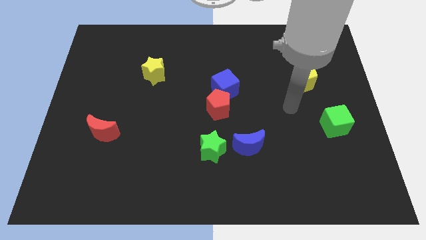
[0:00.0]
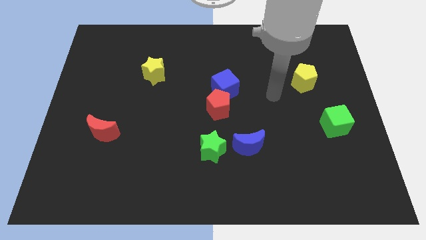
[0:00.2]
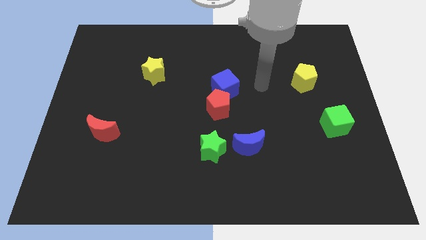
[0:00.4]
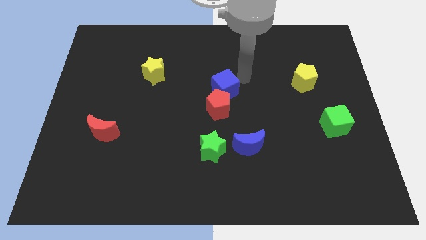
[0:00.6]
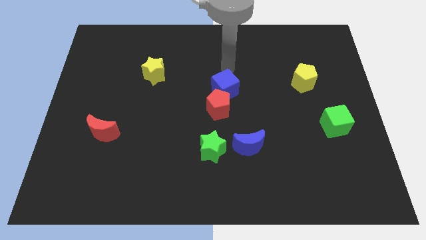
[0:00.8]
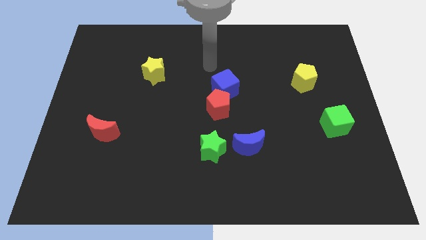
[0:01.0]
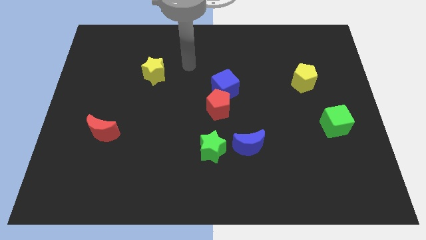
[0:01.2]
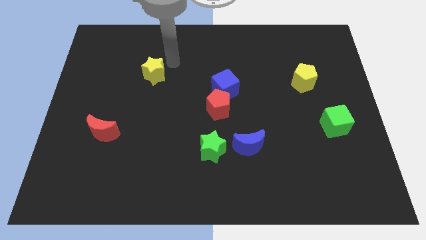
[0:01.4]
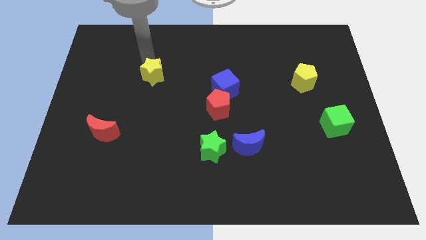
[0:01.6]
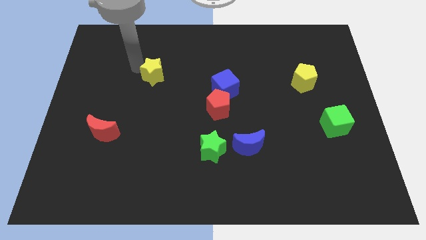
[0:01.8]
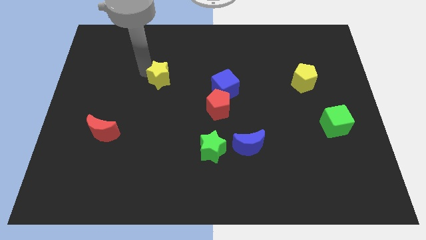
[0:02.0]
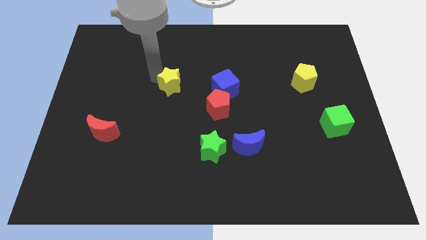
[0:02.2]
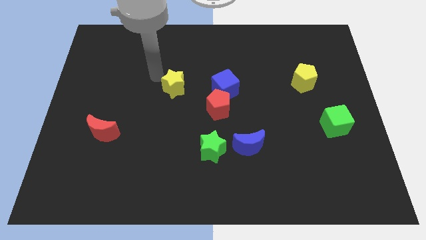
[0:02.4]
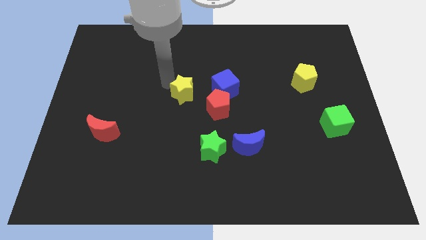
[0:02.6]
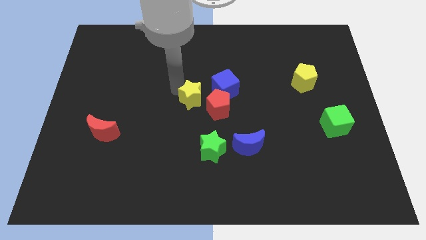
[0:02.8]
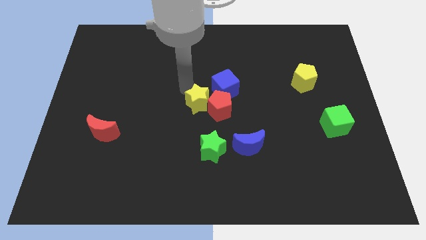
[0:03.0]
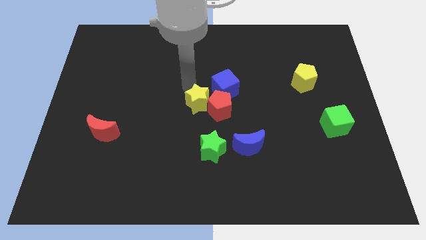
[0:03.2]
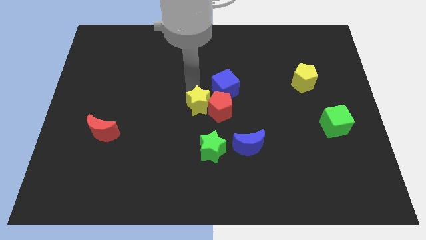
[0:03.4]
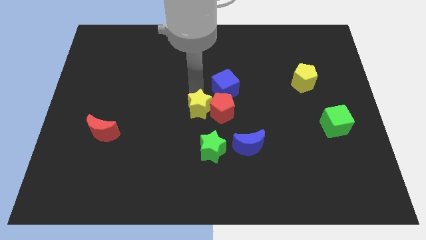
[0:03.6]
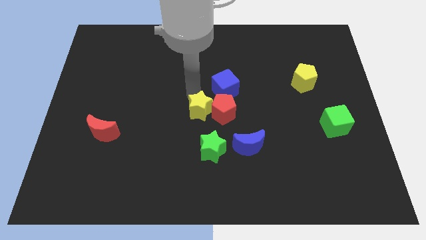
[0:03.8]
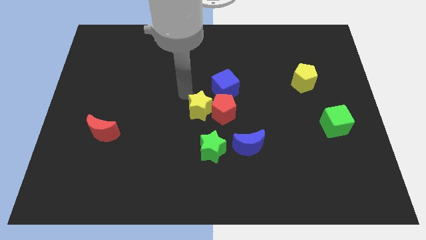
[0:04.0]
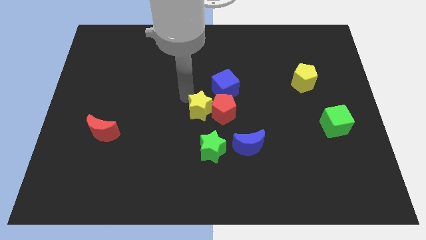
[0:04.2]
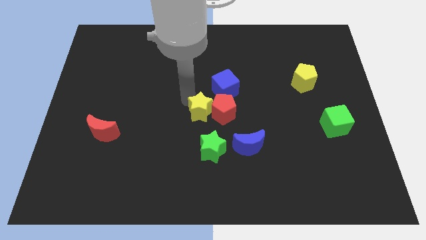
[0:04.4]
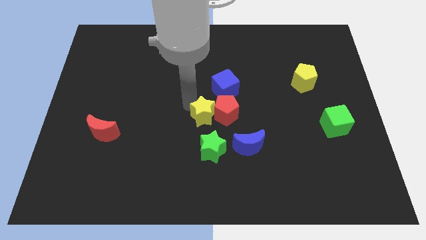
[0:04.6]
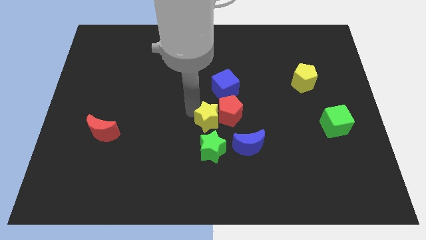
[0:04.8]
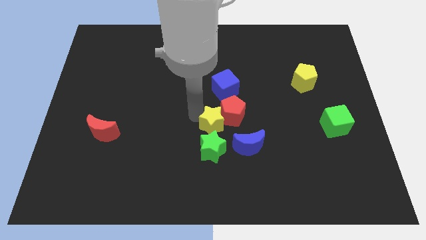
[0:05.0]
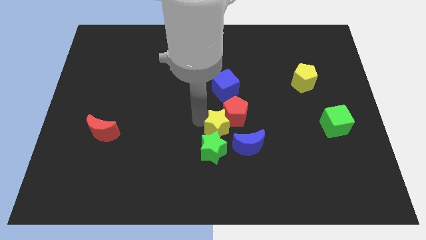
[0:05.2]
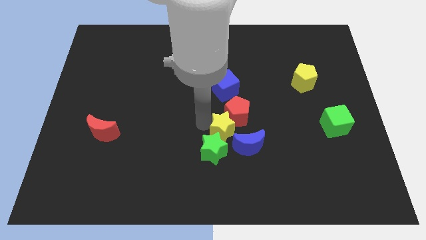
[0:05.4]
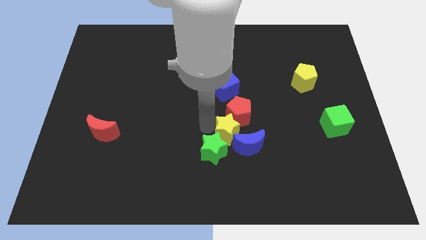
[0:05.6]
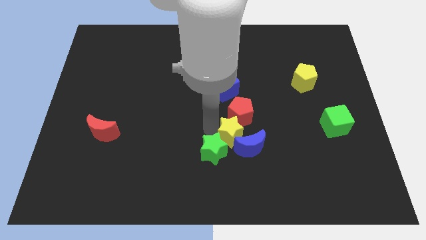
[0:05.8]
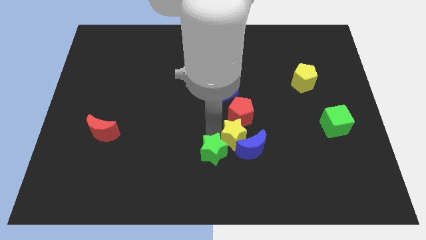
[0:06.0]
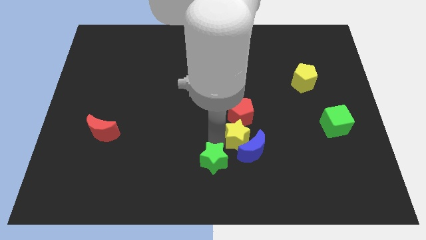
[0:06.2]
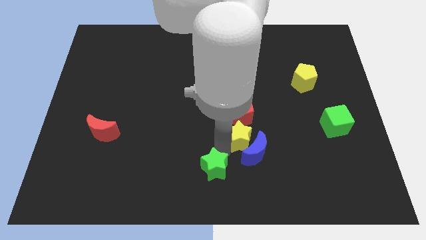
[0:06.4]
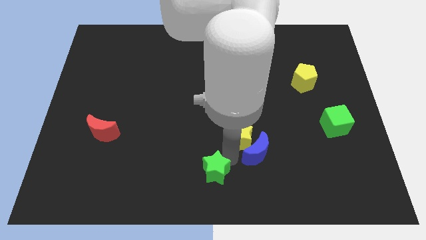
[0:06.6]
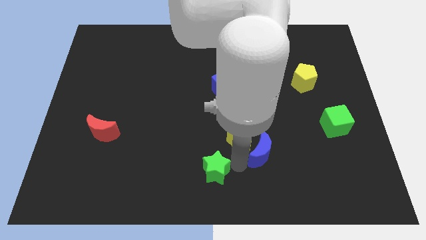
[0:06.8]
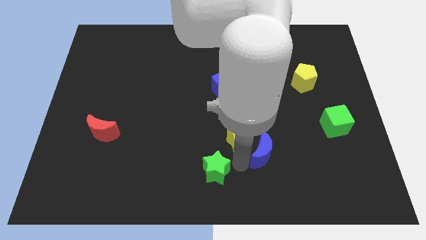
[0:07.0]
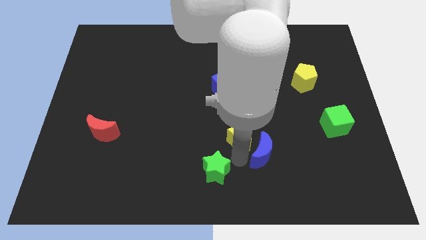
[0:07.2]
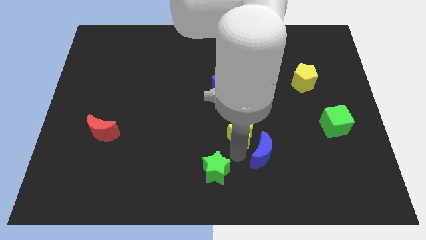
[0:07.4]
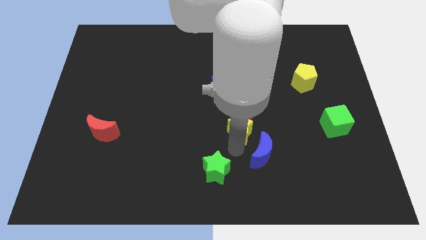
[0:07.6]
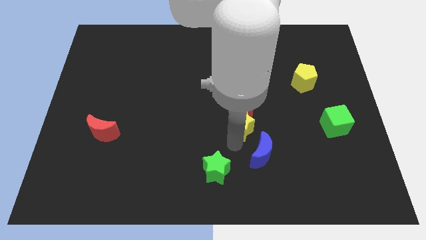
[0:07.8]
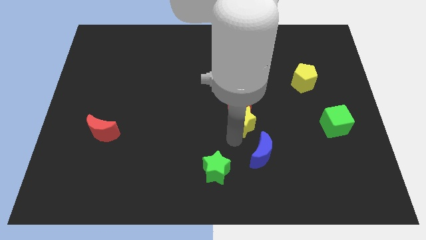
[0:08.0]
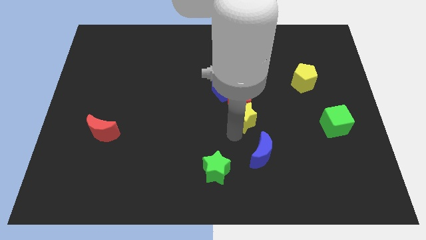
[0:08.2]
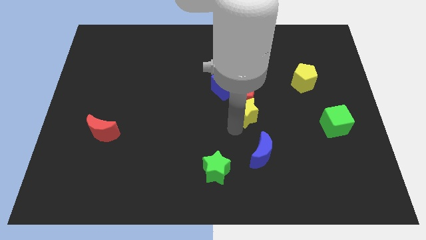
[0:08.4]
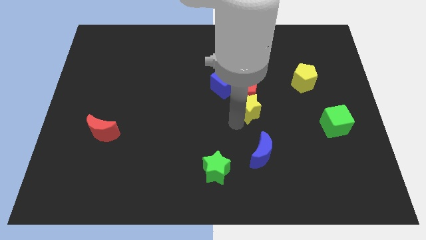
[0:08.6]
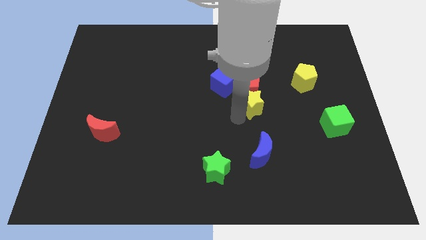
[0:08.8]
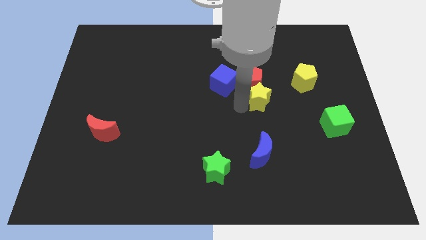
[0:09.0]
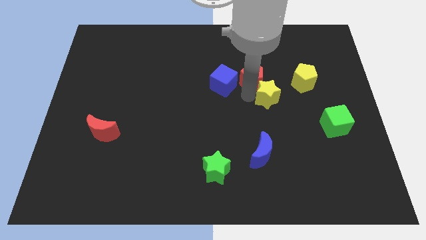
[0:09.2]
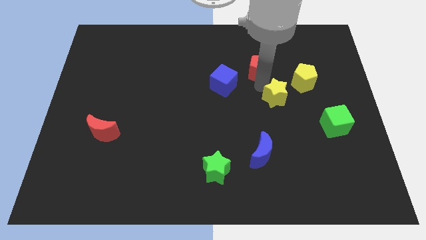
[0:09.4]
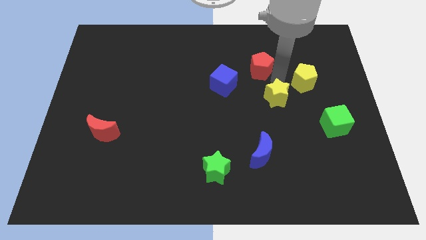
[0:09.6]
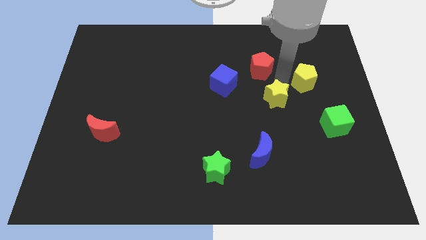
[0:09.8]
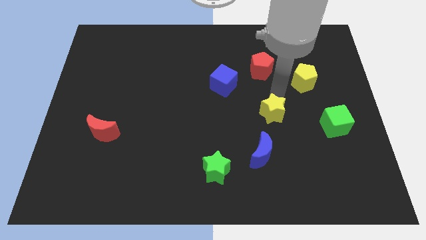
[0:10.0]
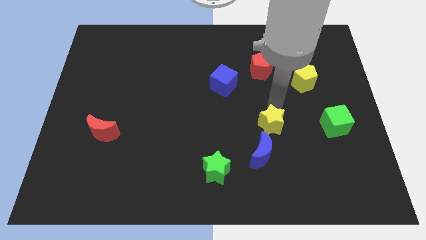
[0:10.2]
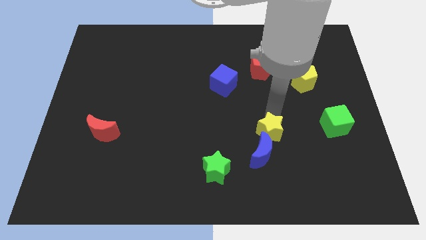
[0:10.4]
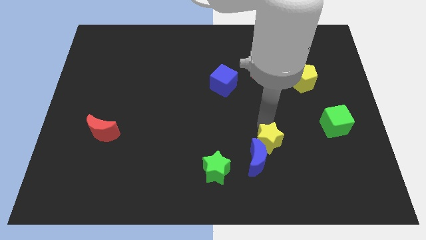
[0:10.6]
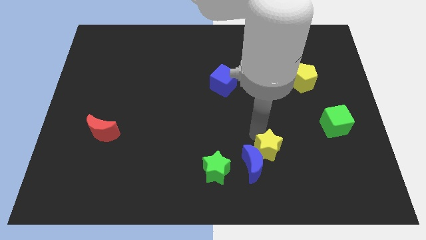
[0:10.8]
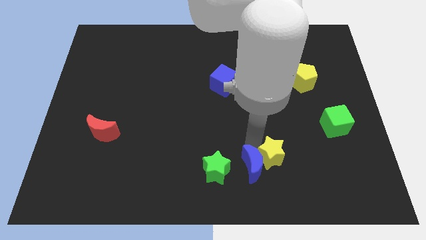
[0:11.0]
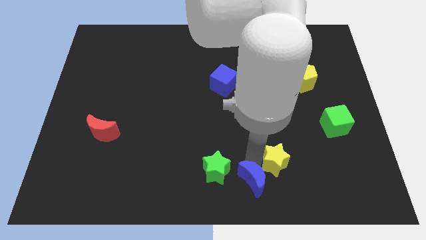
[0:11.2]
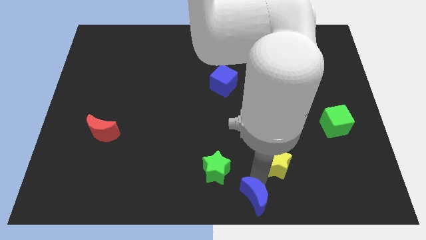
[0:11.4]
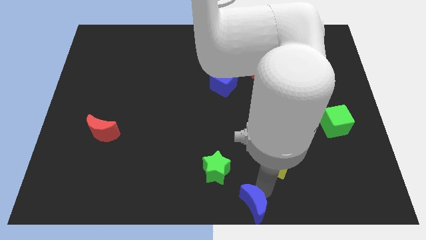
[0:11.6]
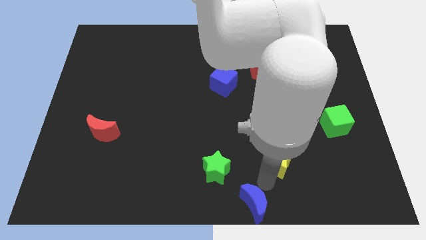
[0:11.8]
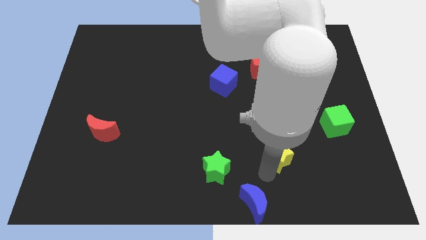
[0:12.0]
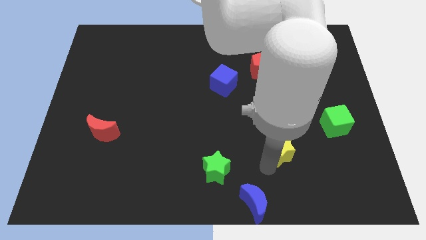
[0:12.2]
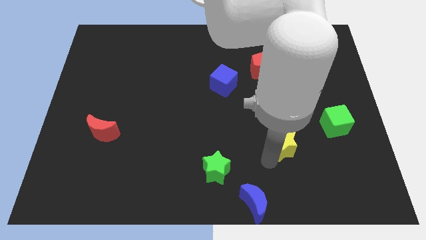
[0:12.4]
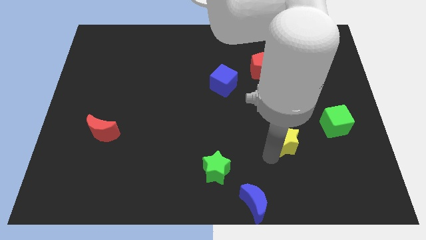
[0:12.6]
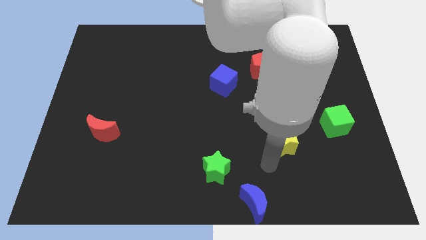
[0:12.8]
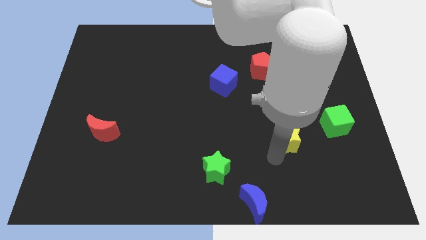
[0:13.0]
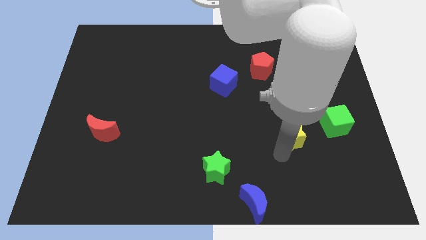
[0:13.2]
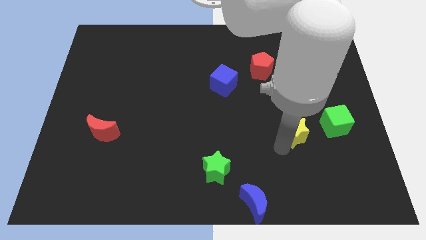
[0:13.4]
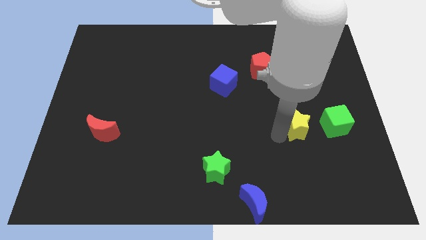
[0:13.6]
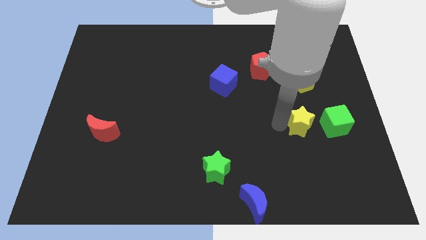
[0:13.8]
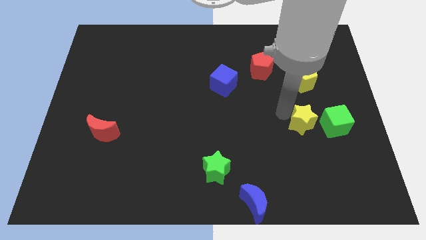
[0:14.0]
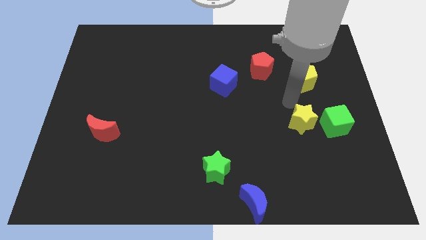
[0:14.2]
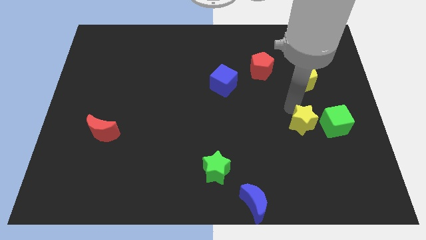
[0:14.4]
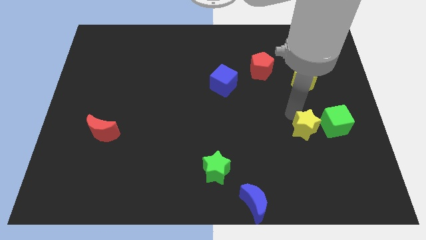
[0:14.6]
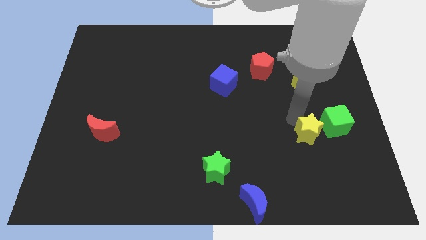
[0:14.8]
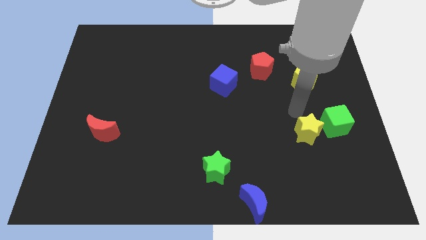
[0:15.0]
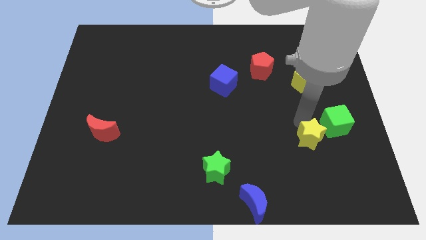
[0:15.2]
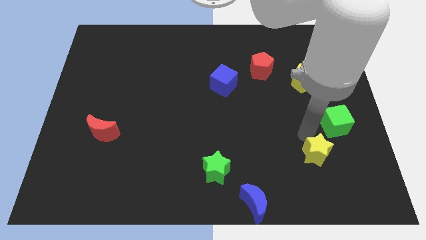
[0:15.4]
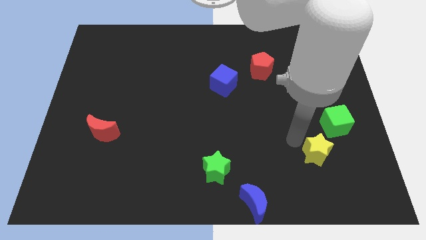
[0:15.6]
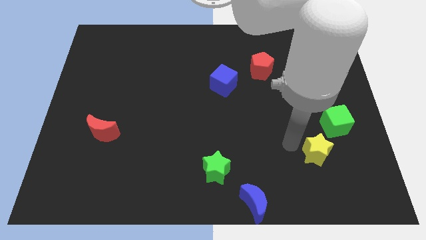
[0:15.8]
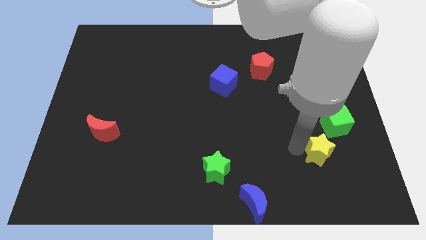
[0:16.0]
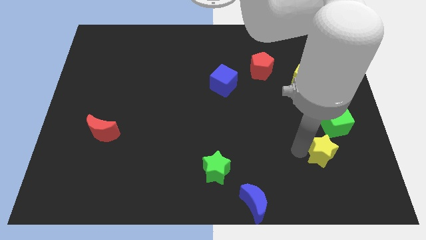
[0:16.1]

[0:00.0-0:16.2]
slide the yellow star below the green cube
